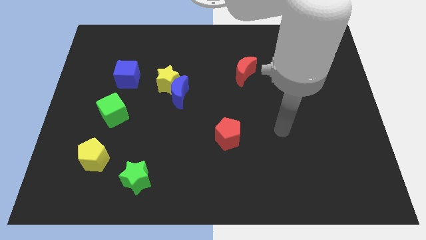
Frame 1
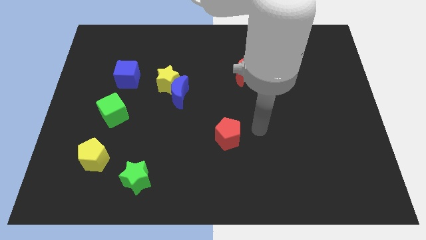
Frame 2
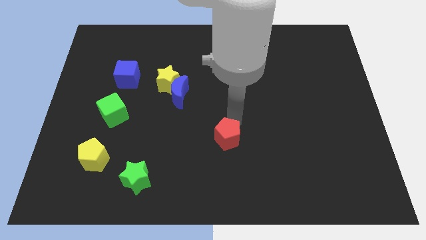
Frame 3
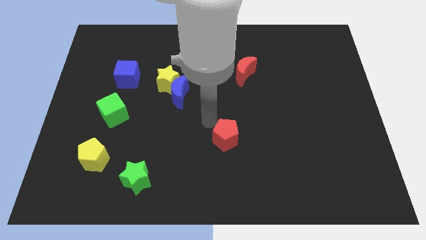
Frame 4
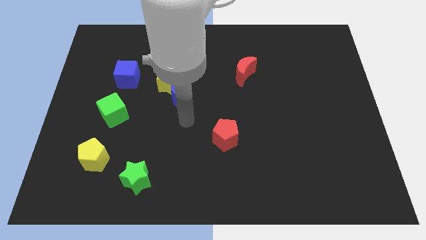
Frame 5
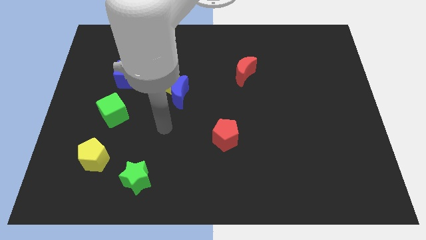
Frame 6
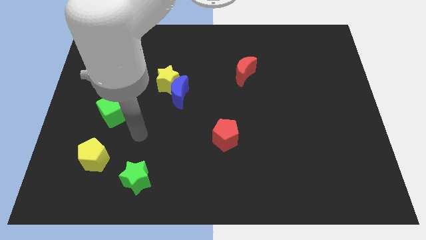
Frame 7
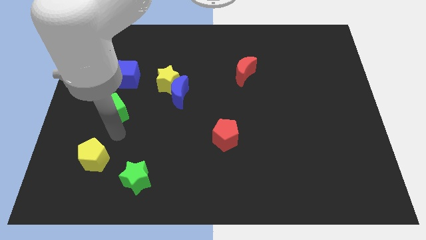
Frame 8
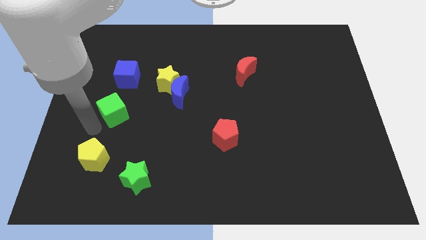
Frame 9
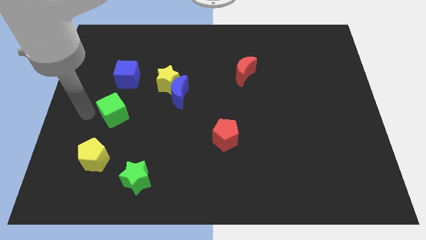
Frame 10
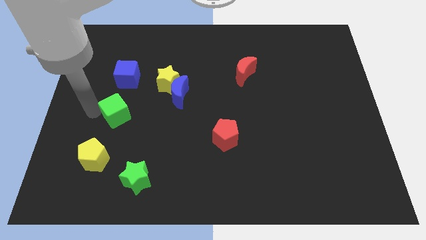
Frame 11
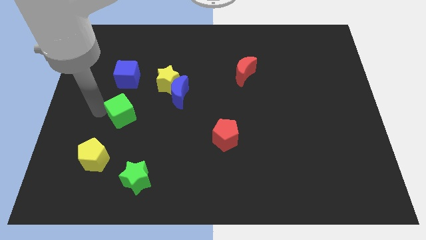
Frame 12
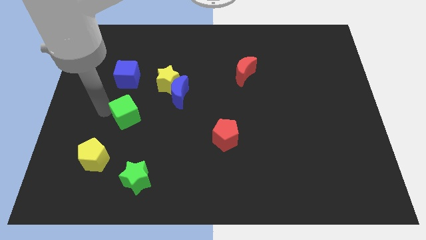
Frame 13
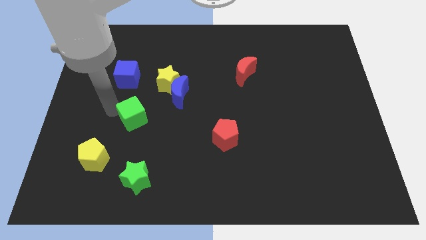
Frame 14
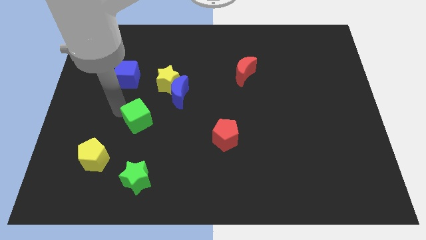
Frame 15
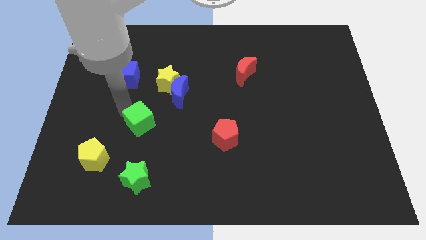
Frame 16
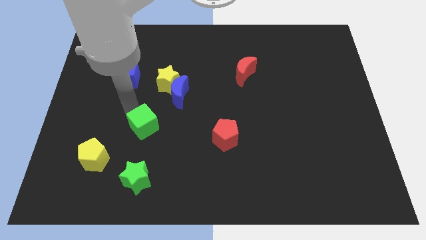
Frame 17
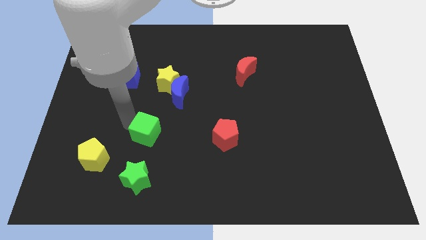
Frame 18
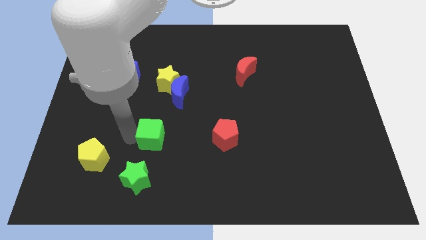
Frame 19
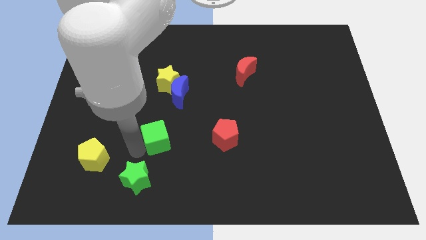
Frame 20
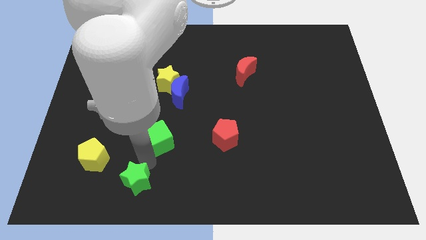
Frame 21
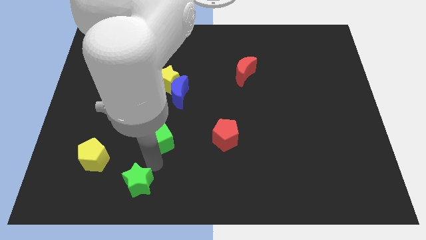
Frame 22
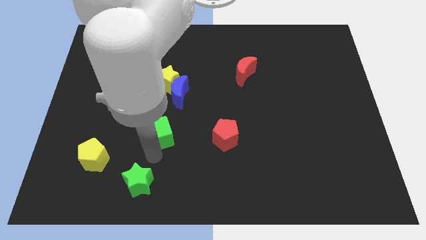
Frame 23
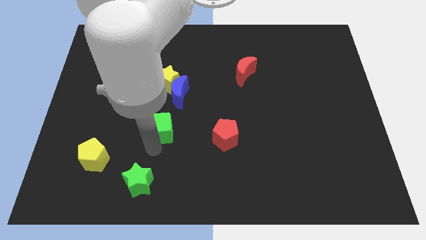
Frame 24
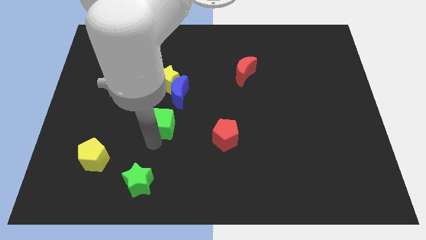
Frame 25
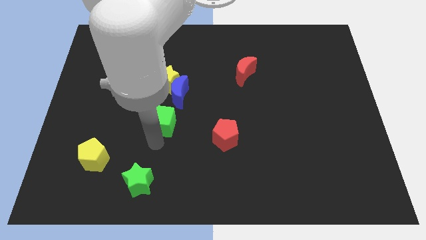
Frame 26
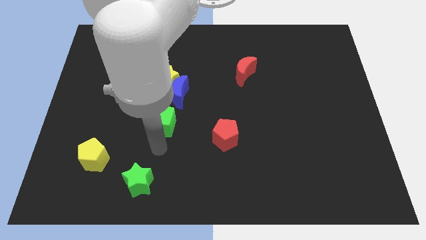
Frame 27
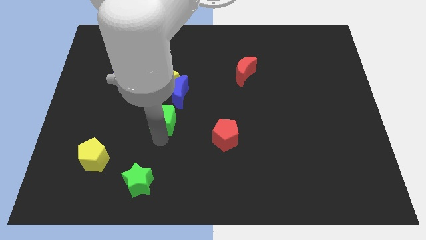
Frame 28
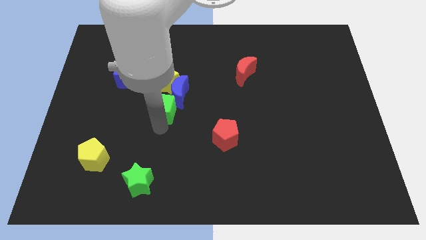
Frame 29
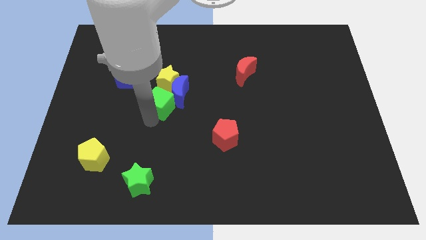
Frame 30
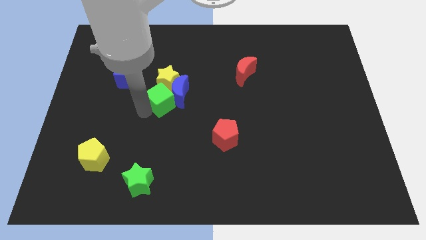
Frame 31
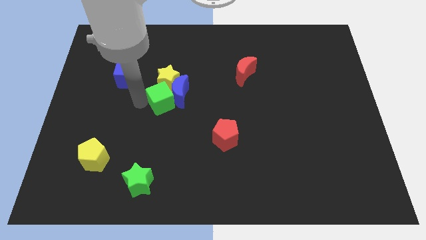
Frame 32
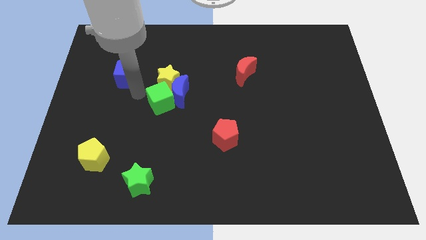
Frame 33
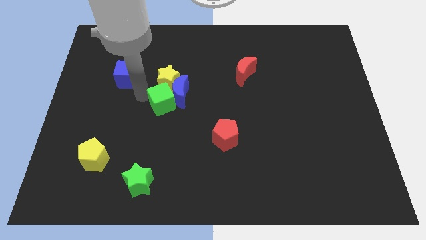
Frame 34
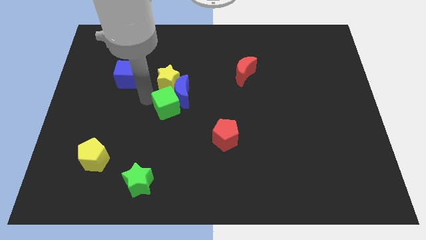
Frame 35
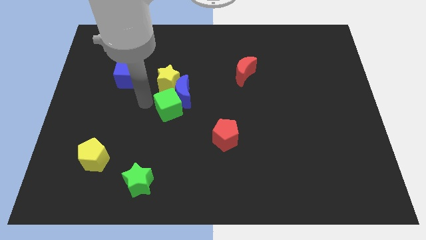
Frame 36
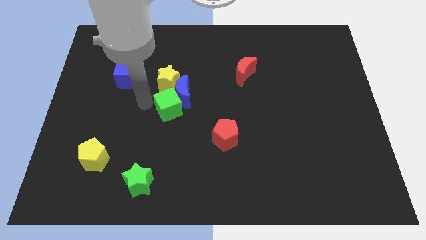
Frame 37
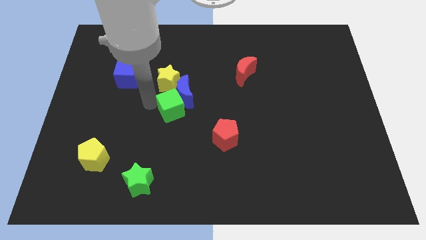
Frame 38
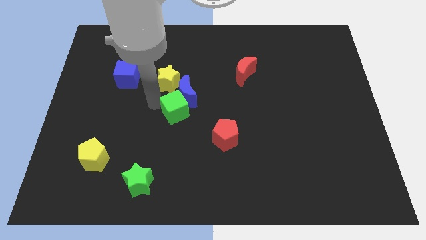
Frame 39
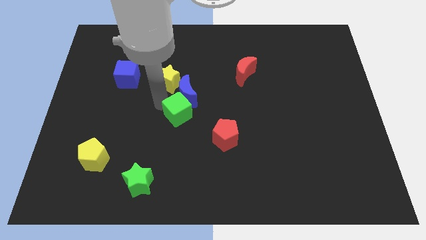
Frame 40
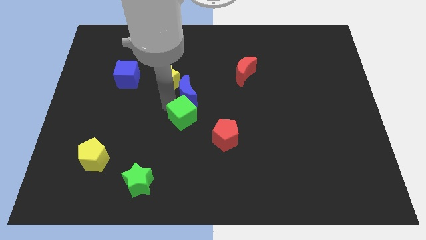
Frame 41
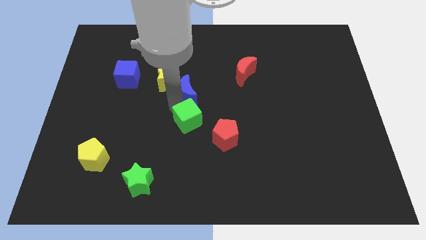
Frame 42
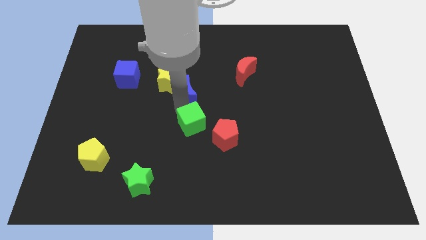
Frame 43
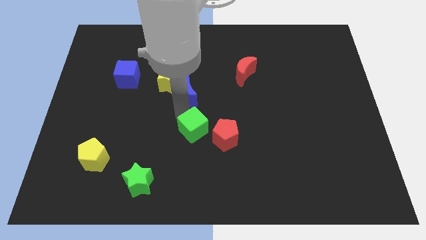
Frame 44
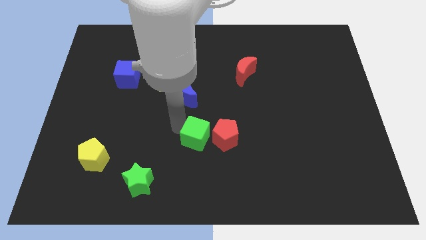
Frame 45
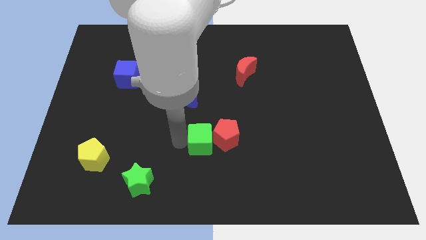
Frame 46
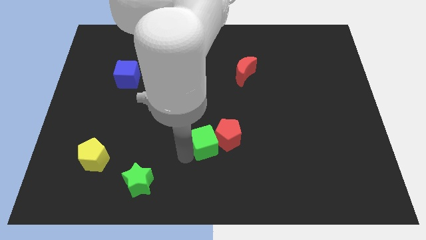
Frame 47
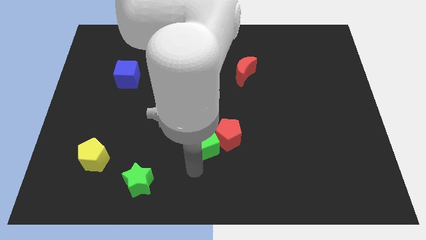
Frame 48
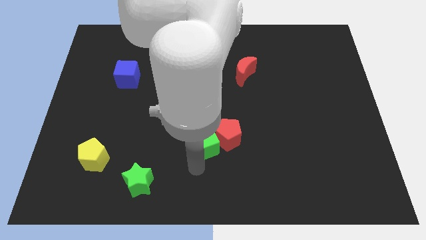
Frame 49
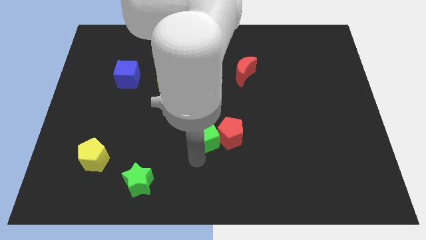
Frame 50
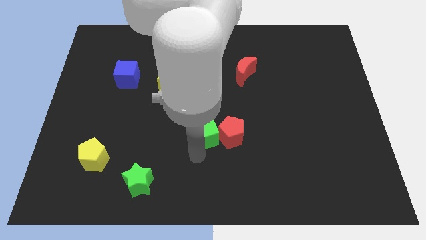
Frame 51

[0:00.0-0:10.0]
push the green cube to the right

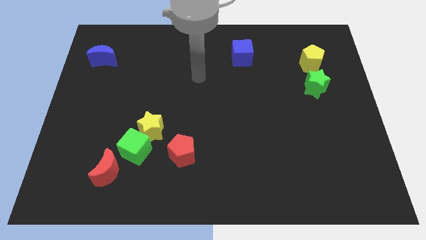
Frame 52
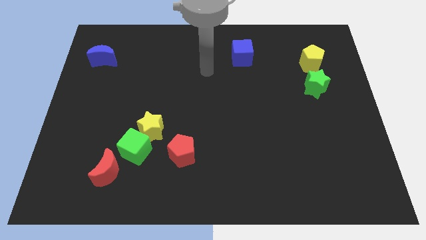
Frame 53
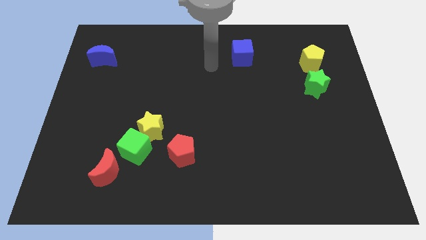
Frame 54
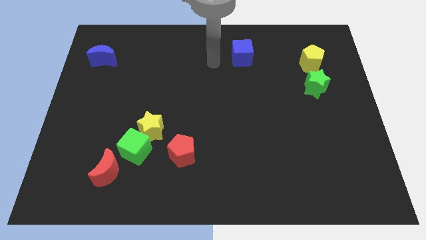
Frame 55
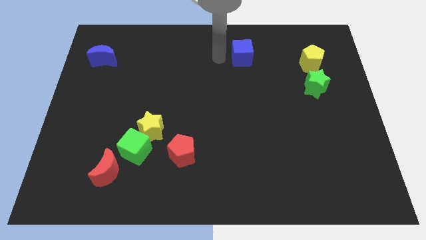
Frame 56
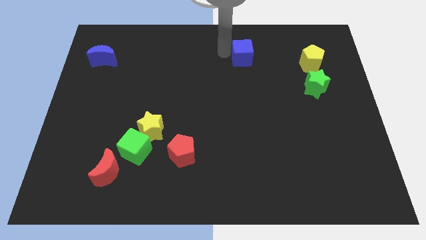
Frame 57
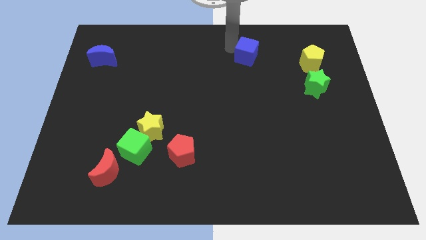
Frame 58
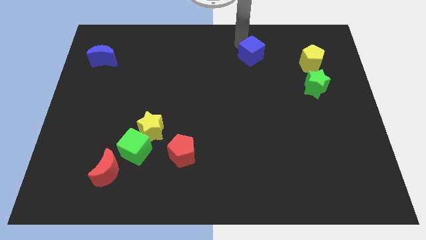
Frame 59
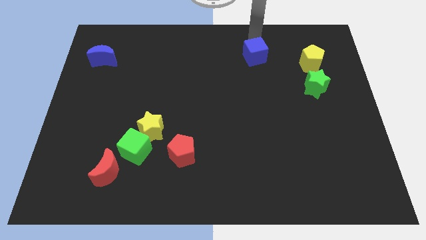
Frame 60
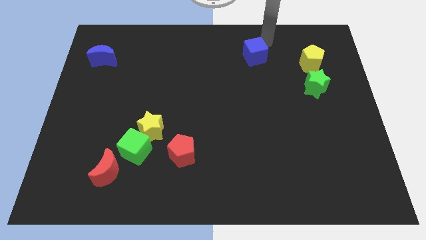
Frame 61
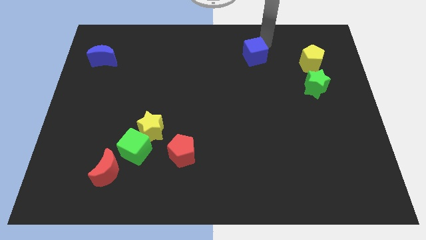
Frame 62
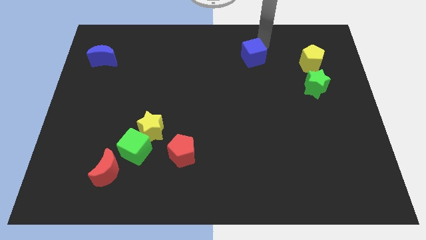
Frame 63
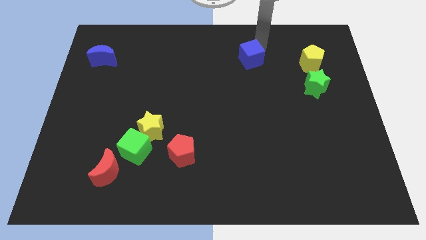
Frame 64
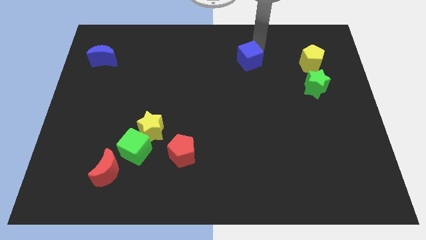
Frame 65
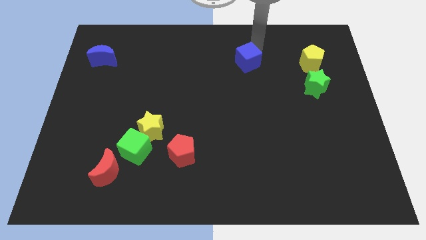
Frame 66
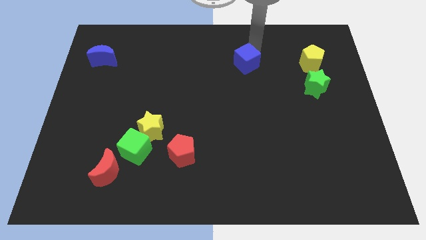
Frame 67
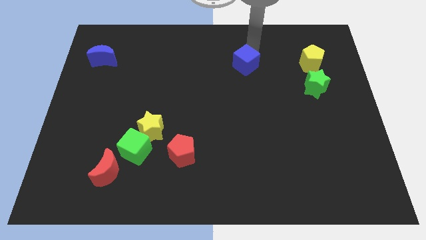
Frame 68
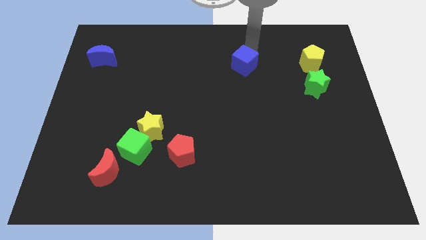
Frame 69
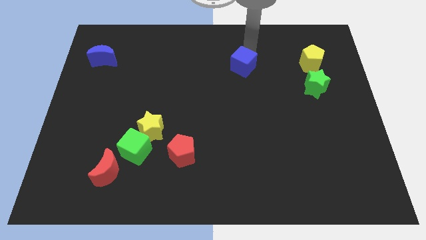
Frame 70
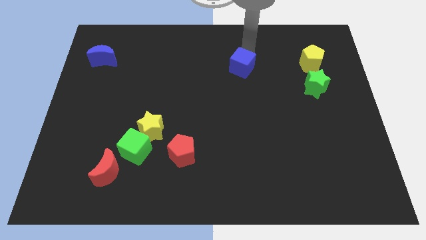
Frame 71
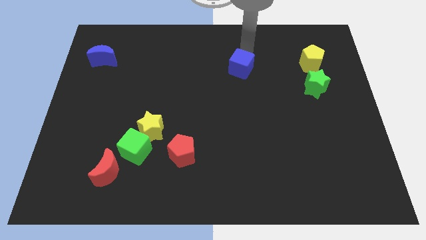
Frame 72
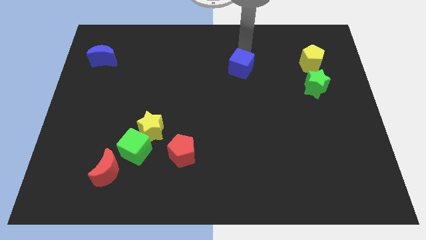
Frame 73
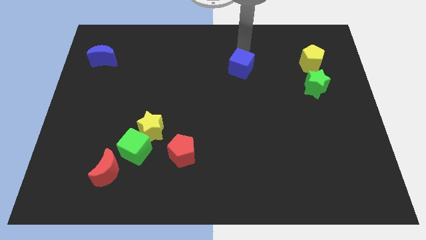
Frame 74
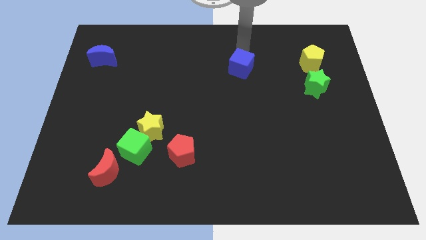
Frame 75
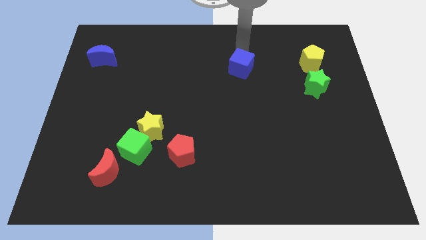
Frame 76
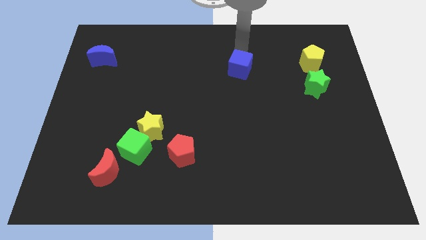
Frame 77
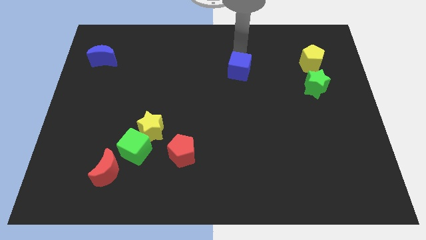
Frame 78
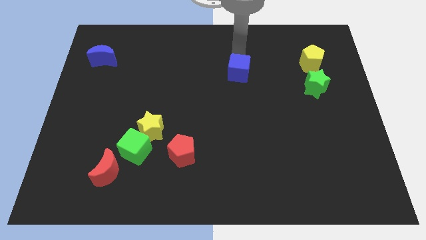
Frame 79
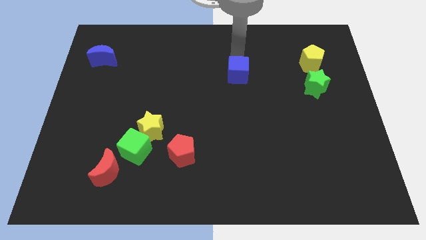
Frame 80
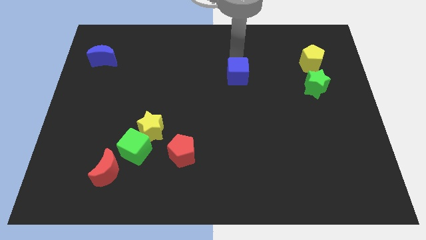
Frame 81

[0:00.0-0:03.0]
slide the blue cube downwards a little bit
